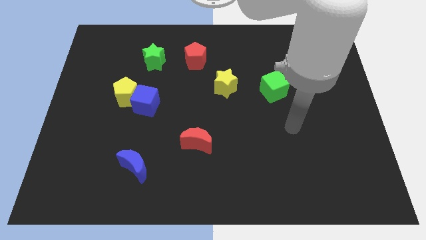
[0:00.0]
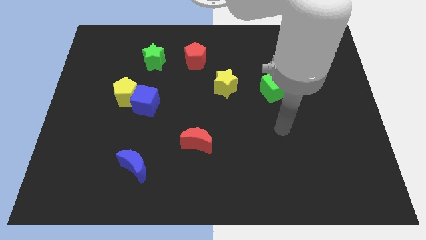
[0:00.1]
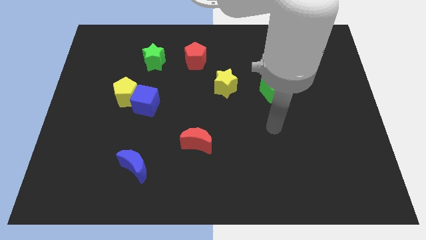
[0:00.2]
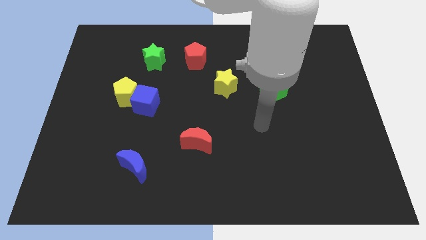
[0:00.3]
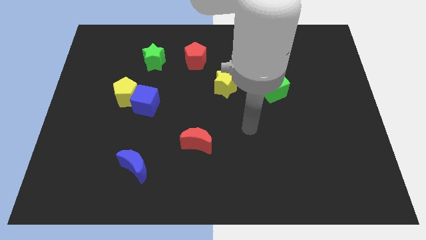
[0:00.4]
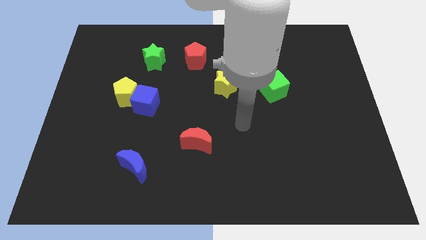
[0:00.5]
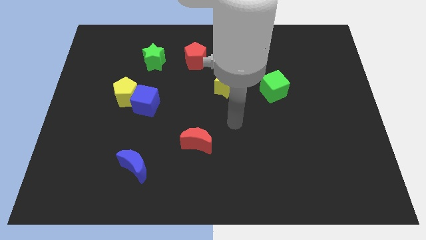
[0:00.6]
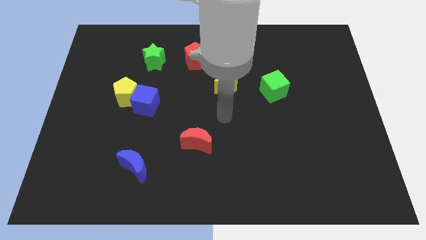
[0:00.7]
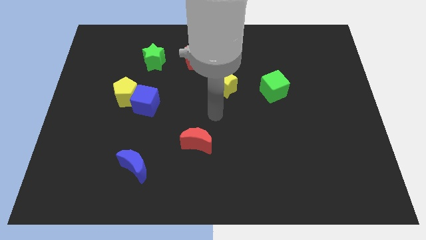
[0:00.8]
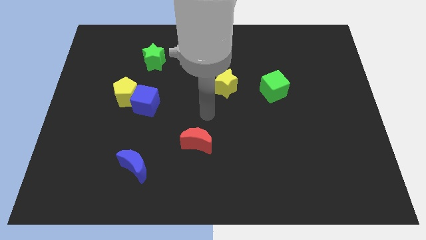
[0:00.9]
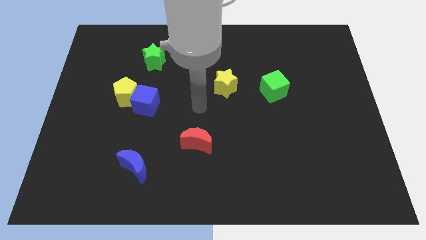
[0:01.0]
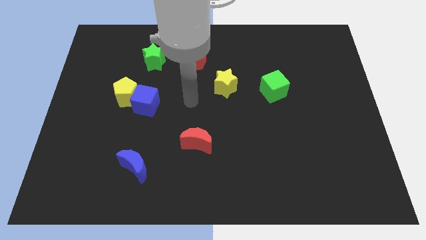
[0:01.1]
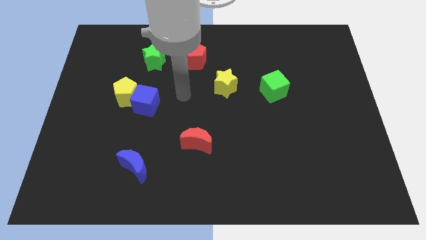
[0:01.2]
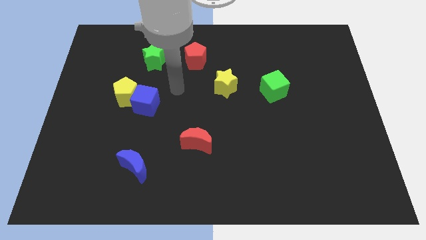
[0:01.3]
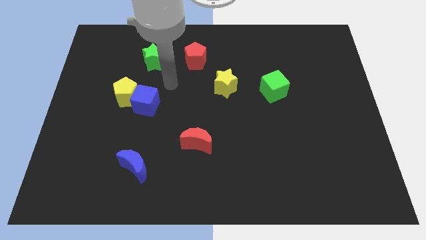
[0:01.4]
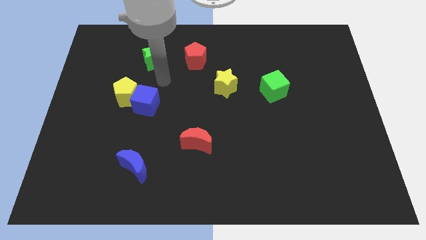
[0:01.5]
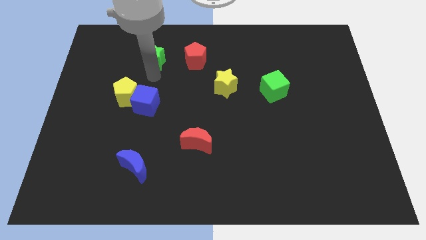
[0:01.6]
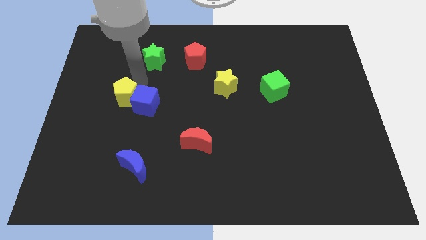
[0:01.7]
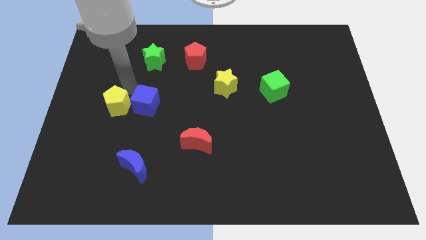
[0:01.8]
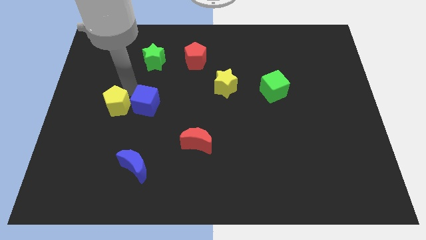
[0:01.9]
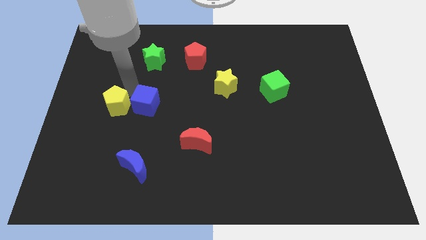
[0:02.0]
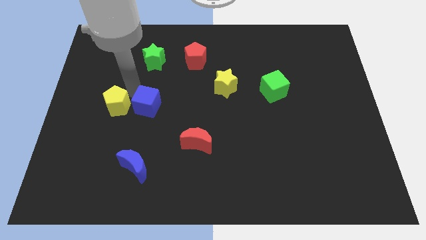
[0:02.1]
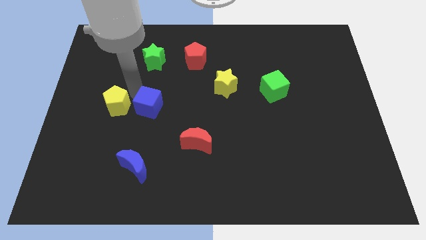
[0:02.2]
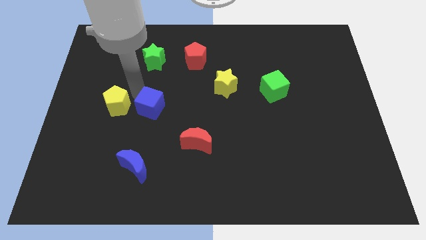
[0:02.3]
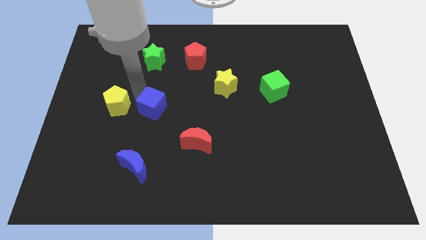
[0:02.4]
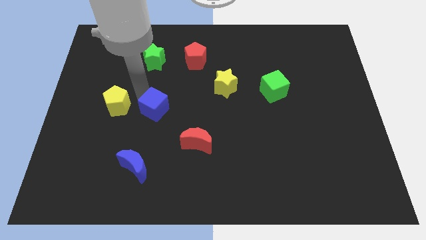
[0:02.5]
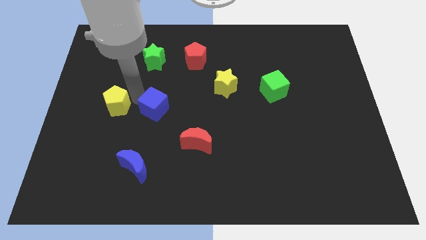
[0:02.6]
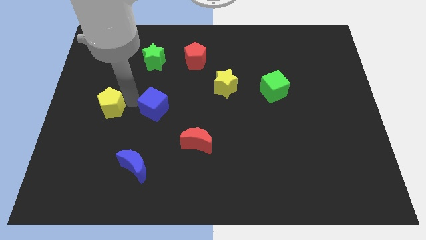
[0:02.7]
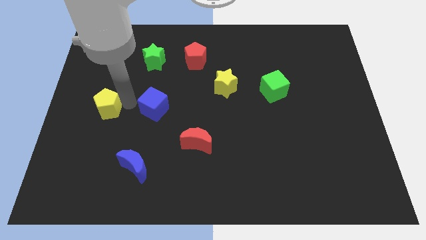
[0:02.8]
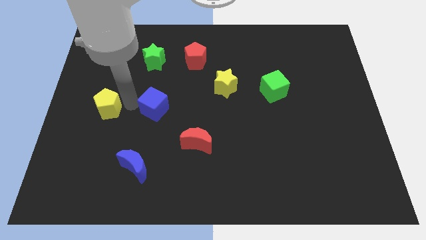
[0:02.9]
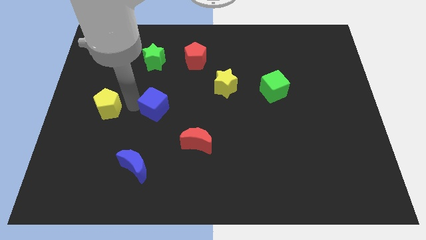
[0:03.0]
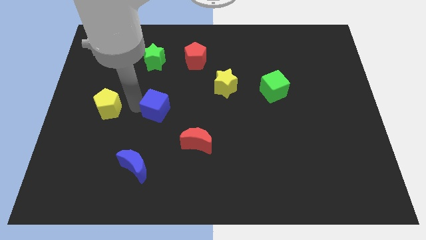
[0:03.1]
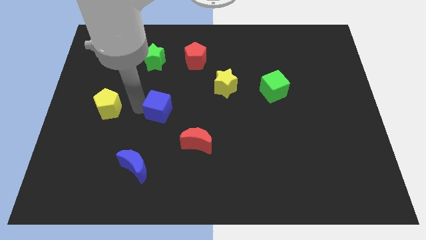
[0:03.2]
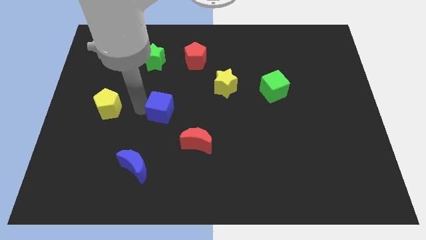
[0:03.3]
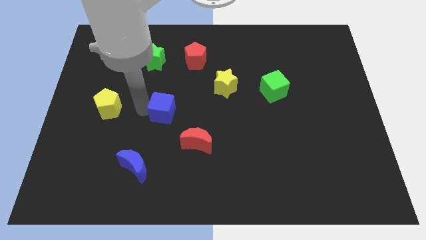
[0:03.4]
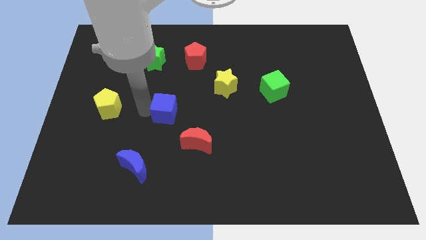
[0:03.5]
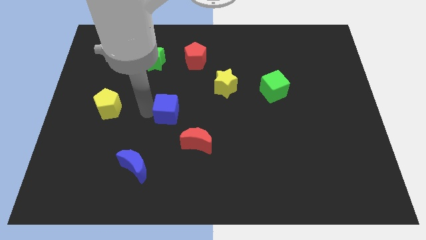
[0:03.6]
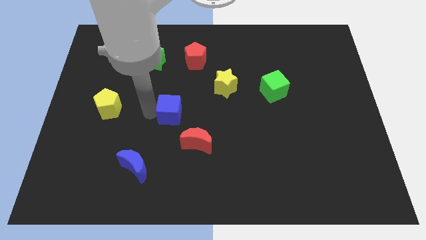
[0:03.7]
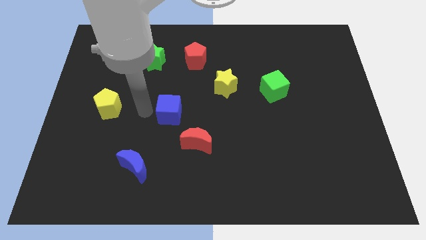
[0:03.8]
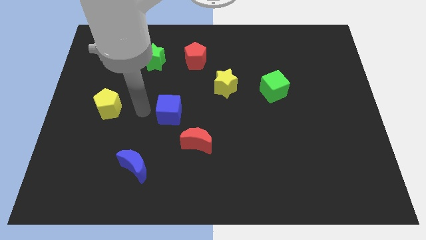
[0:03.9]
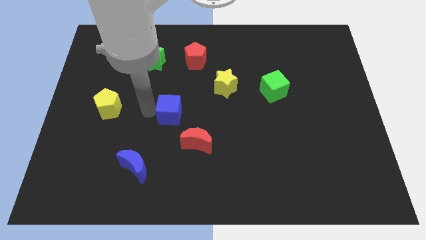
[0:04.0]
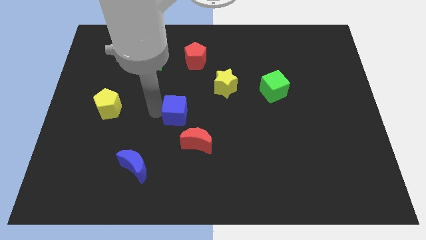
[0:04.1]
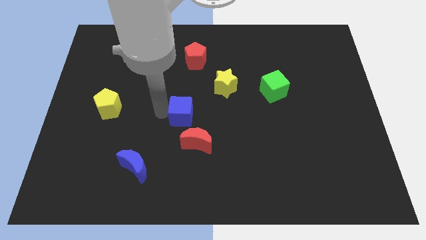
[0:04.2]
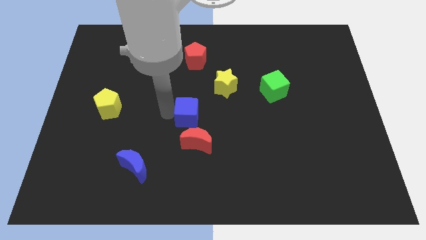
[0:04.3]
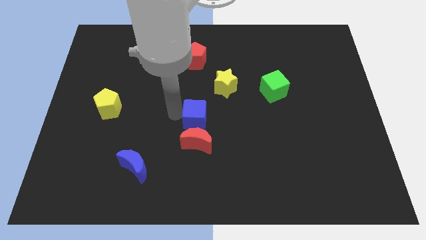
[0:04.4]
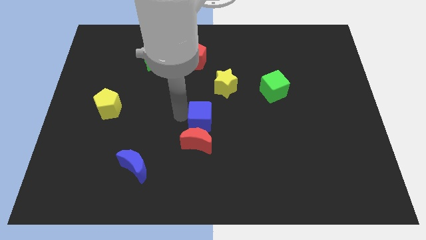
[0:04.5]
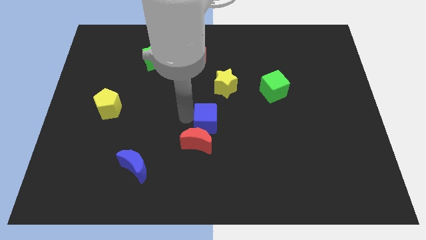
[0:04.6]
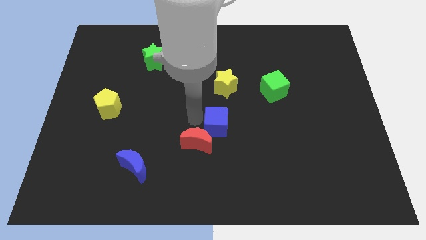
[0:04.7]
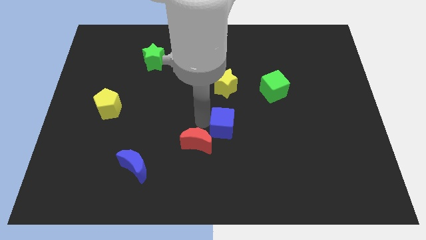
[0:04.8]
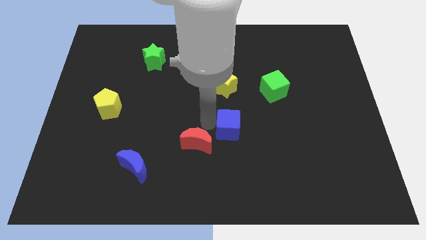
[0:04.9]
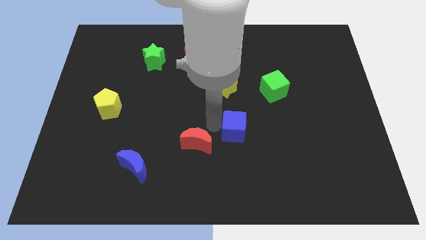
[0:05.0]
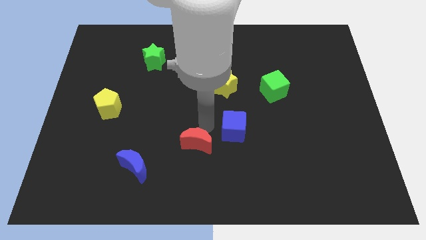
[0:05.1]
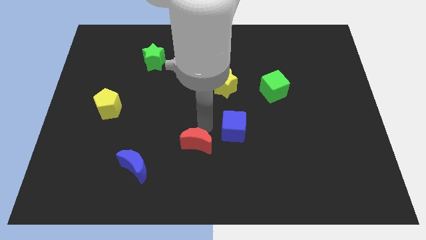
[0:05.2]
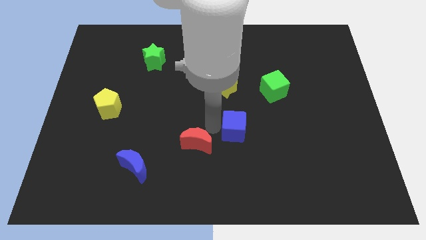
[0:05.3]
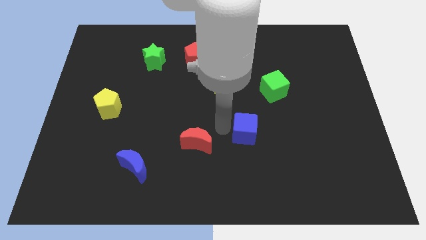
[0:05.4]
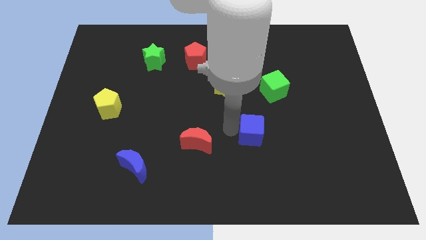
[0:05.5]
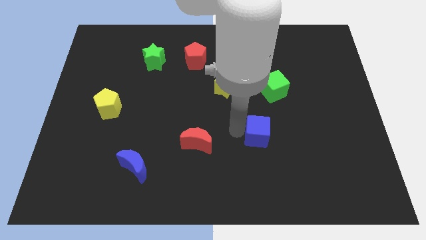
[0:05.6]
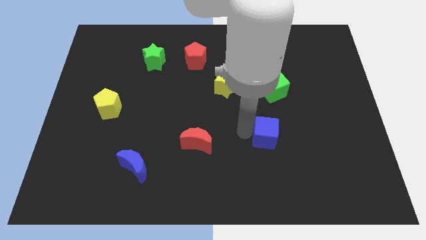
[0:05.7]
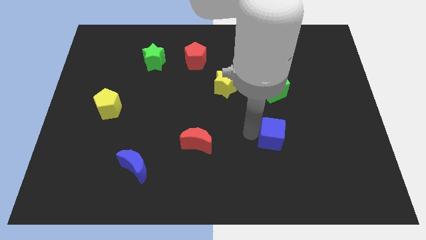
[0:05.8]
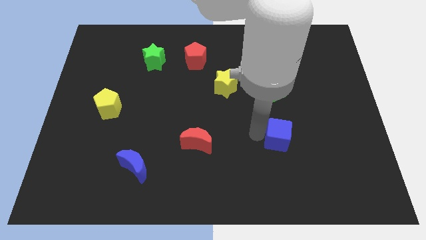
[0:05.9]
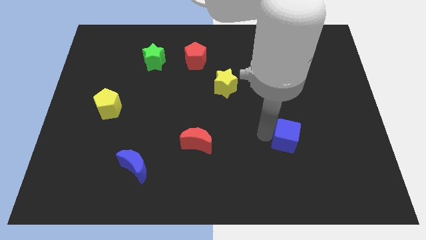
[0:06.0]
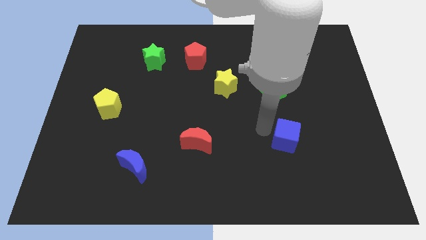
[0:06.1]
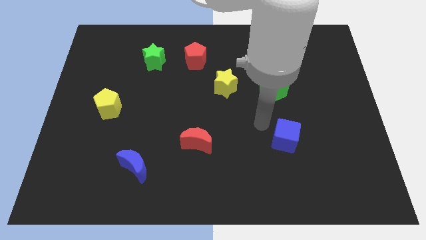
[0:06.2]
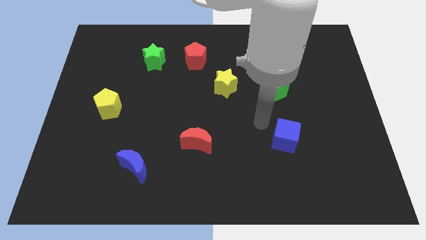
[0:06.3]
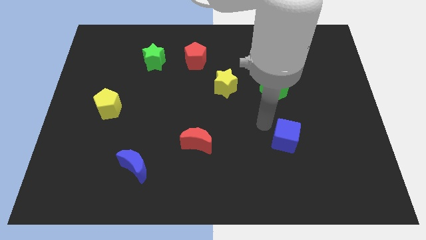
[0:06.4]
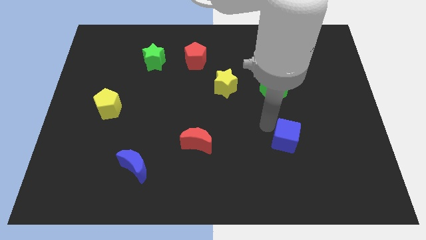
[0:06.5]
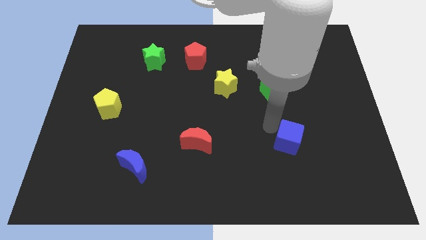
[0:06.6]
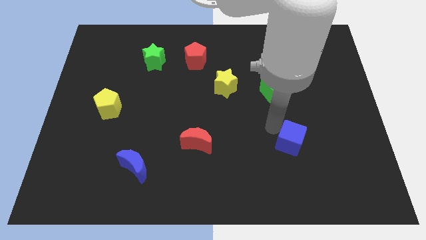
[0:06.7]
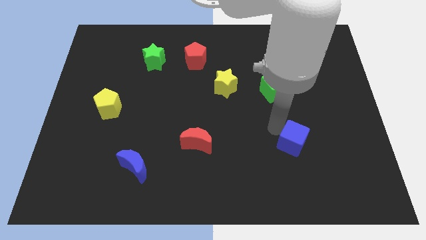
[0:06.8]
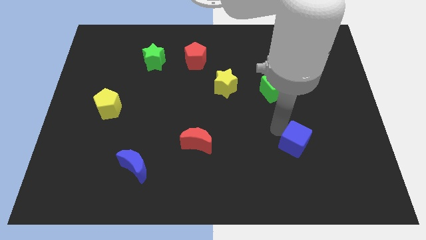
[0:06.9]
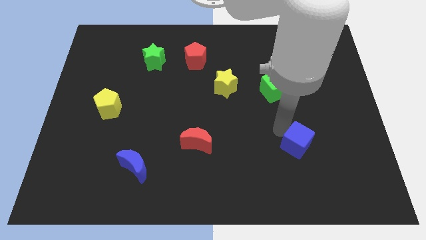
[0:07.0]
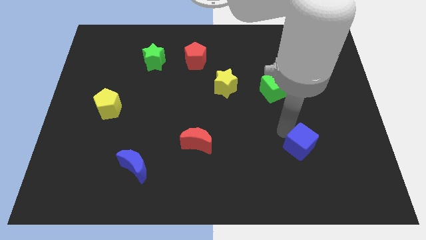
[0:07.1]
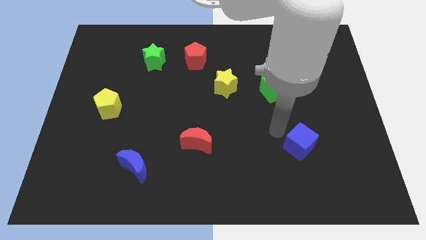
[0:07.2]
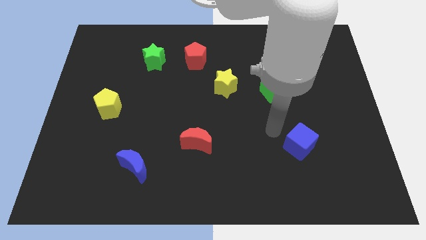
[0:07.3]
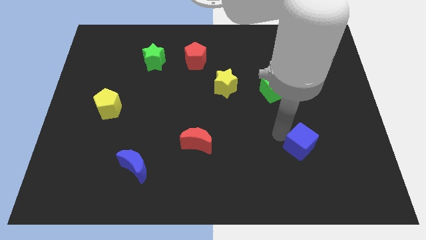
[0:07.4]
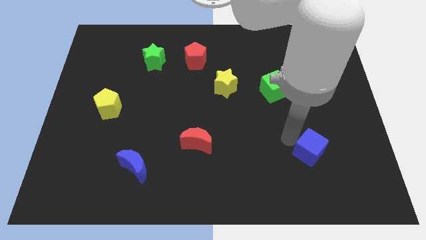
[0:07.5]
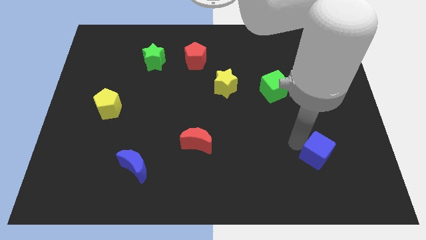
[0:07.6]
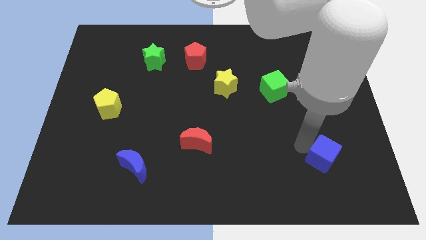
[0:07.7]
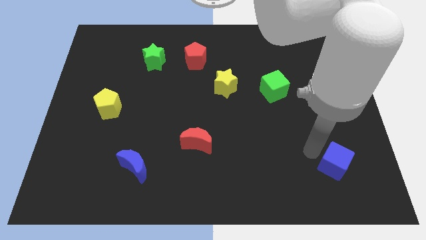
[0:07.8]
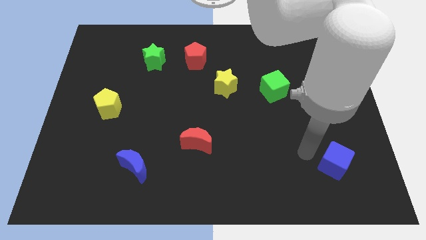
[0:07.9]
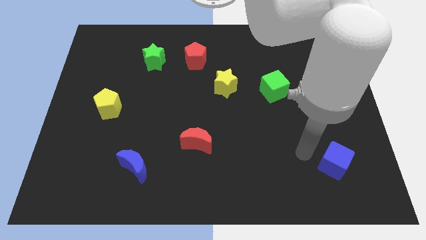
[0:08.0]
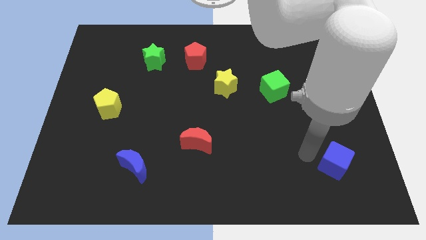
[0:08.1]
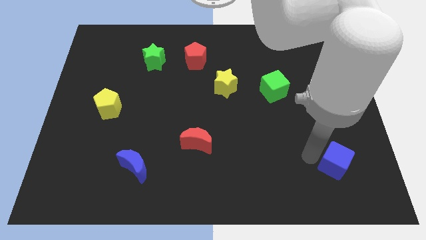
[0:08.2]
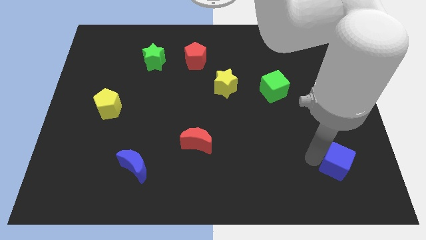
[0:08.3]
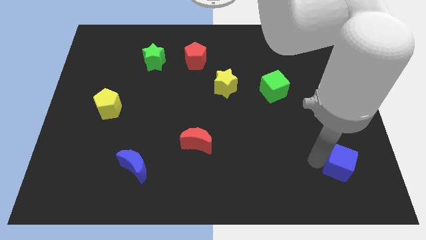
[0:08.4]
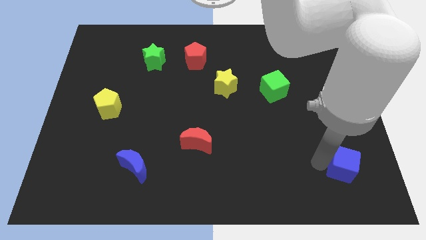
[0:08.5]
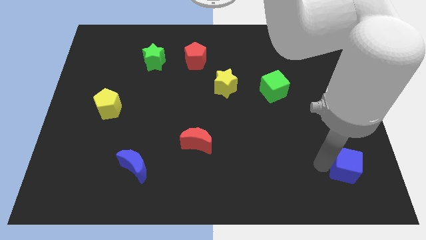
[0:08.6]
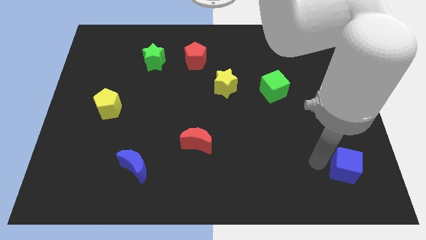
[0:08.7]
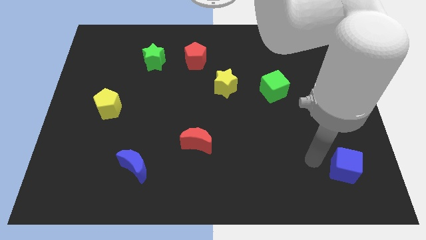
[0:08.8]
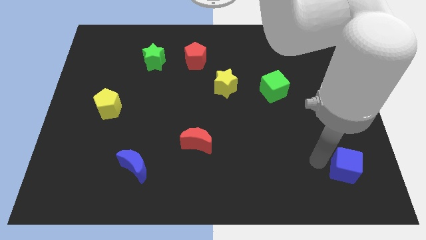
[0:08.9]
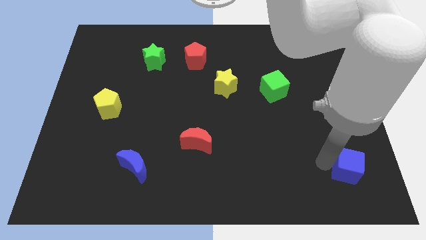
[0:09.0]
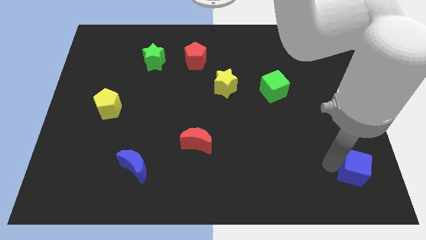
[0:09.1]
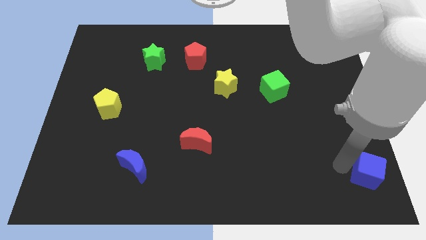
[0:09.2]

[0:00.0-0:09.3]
slide the blue cube to the bottom right
